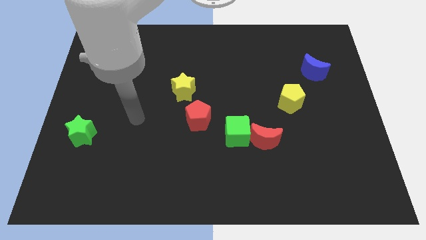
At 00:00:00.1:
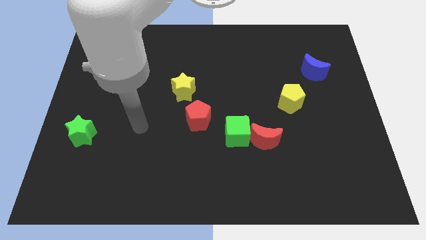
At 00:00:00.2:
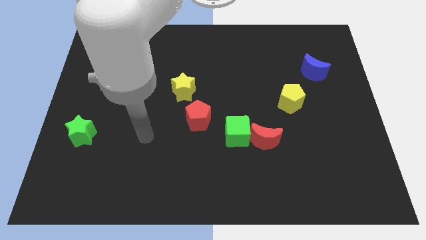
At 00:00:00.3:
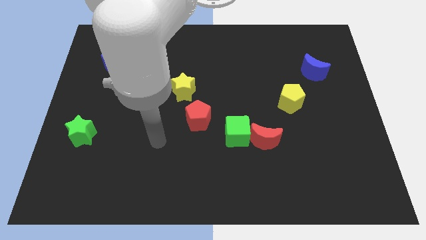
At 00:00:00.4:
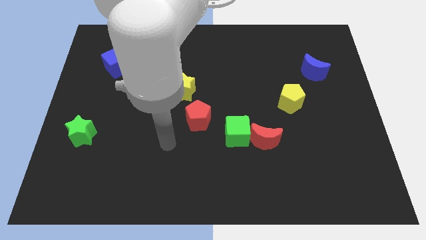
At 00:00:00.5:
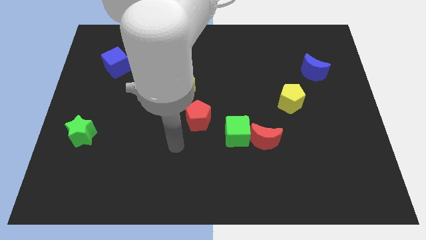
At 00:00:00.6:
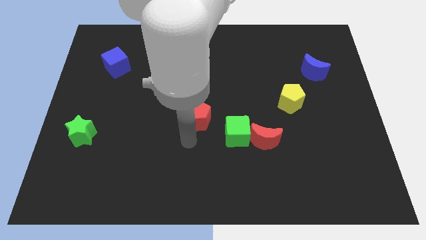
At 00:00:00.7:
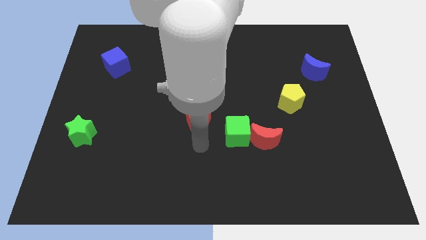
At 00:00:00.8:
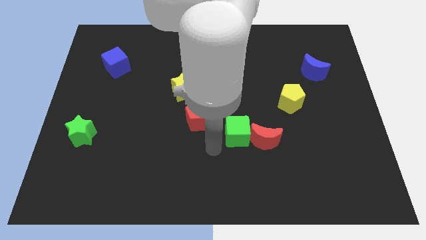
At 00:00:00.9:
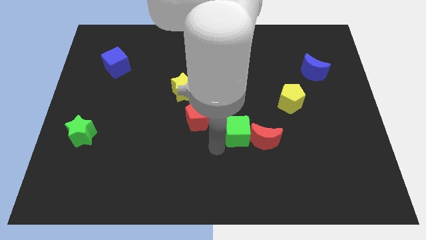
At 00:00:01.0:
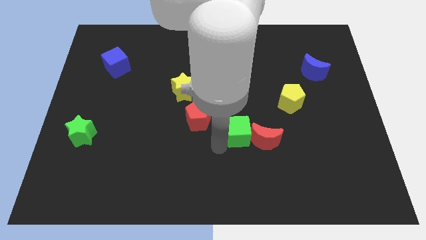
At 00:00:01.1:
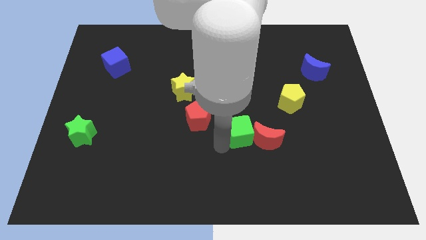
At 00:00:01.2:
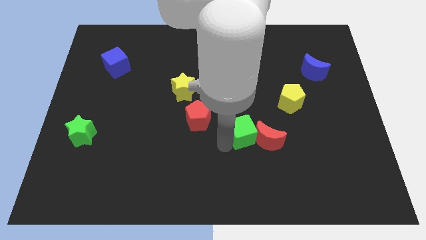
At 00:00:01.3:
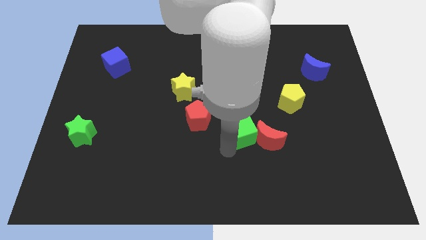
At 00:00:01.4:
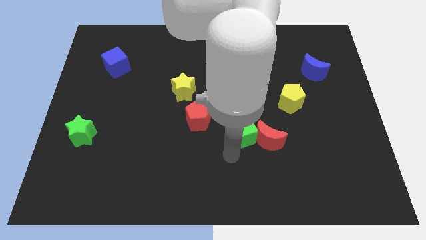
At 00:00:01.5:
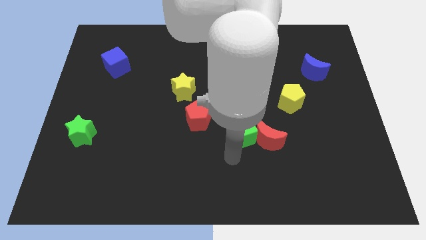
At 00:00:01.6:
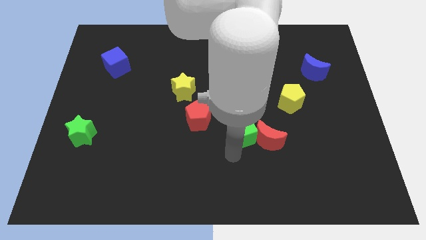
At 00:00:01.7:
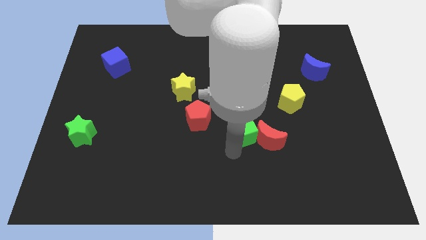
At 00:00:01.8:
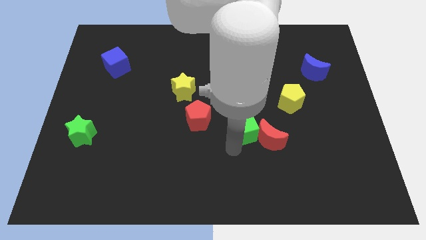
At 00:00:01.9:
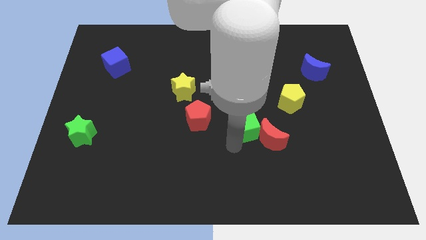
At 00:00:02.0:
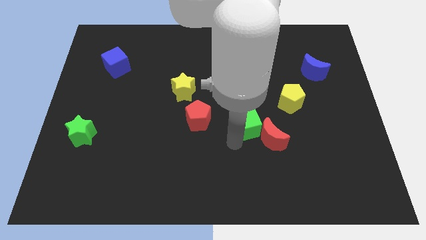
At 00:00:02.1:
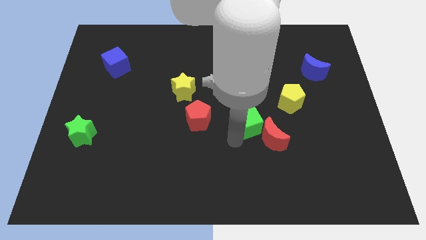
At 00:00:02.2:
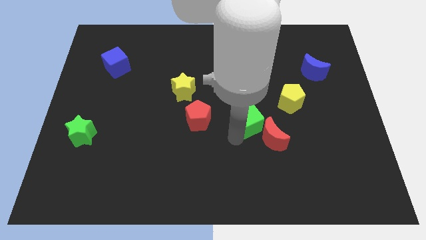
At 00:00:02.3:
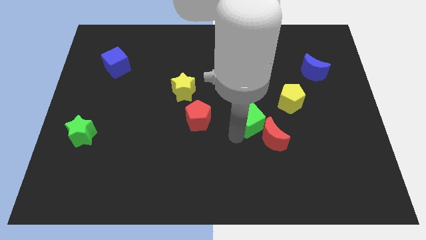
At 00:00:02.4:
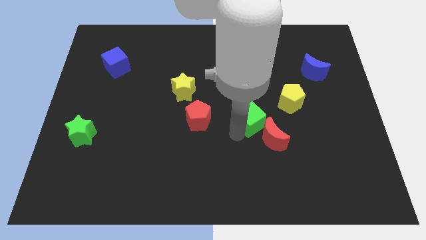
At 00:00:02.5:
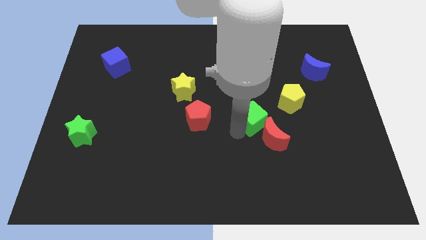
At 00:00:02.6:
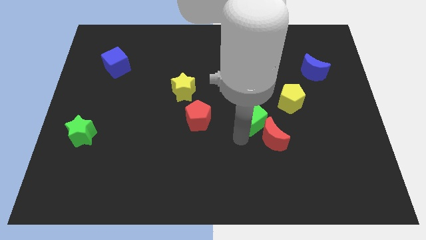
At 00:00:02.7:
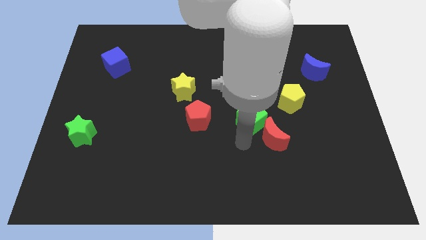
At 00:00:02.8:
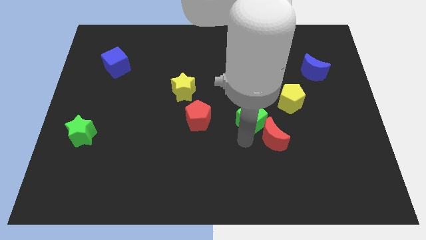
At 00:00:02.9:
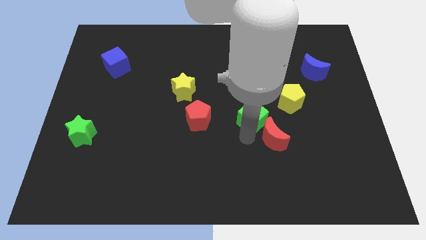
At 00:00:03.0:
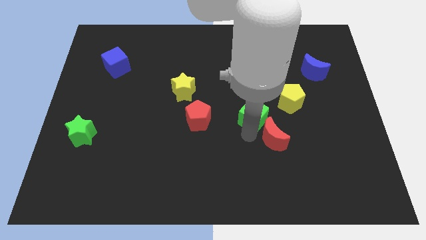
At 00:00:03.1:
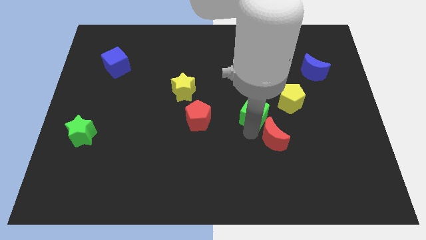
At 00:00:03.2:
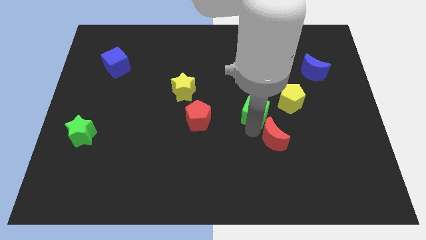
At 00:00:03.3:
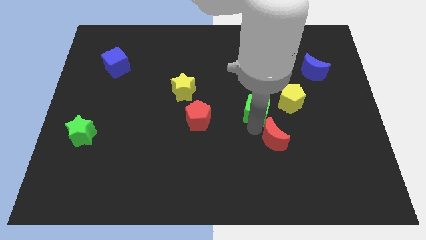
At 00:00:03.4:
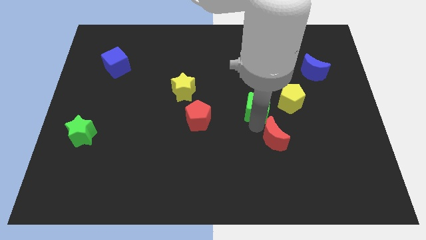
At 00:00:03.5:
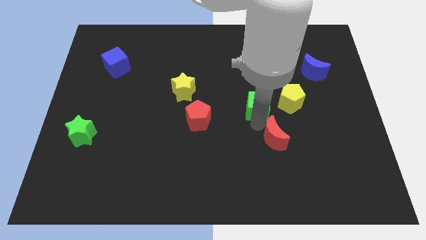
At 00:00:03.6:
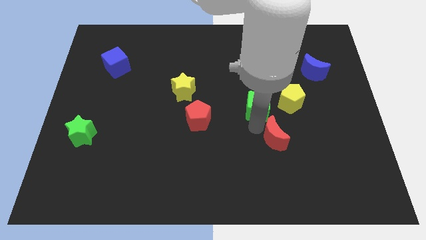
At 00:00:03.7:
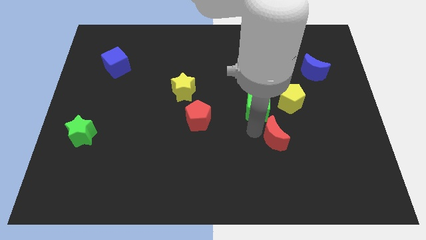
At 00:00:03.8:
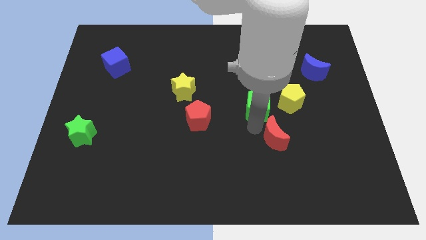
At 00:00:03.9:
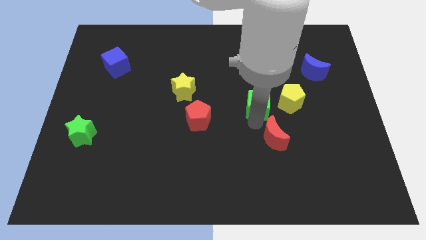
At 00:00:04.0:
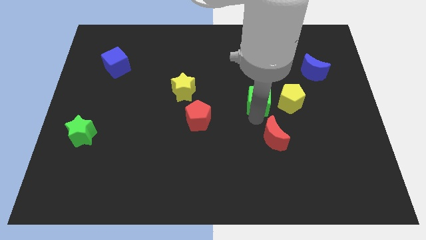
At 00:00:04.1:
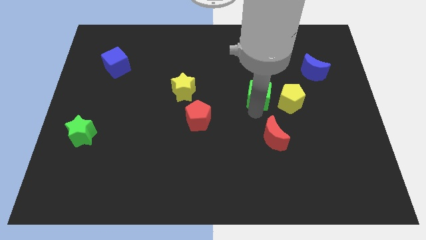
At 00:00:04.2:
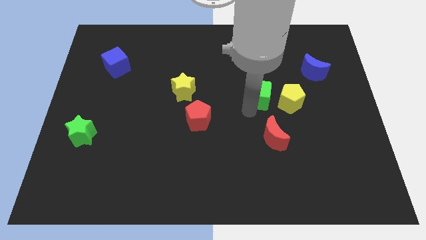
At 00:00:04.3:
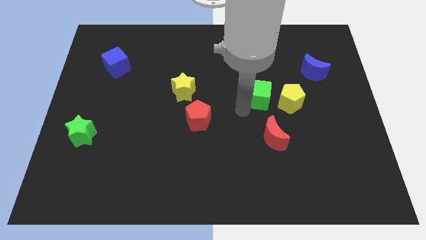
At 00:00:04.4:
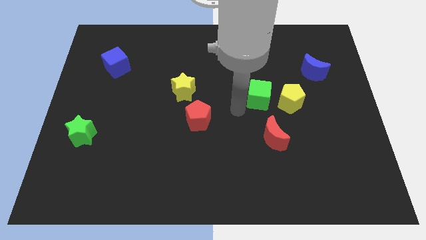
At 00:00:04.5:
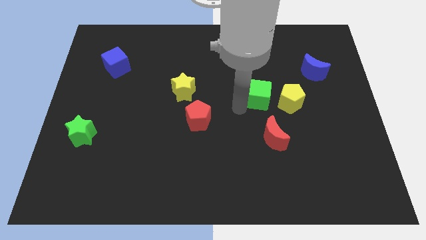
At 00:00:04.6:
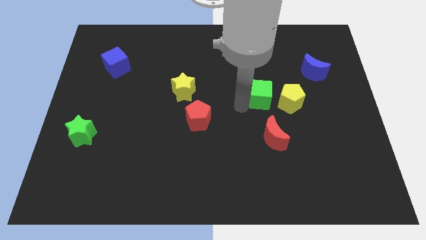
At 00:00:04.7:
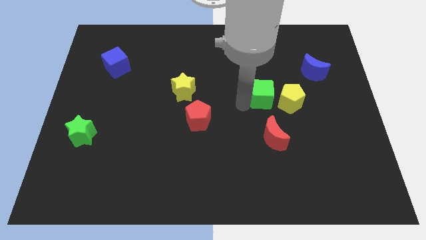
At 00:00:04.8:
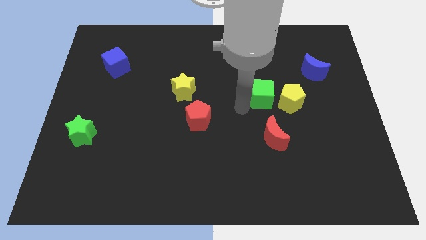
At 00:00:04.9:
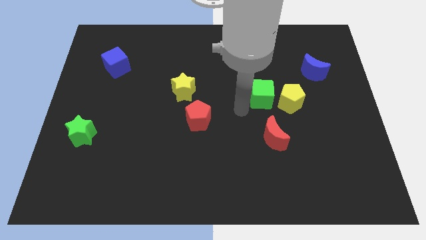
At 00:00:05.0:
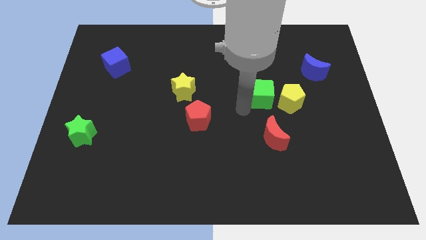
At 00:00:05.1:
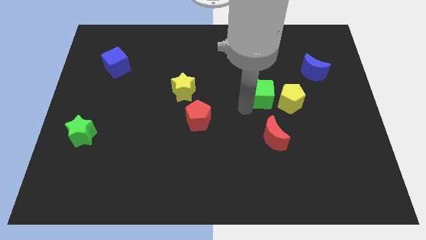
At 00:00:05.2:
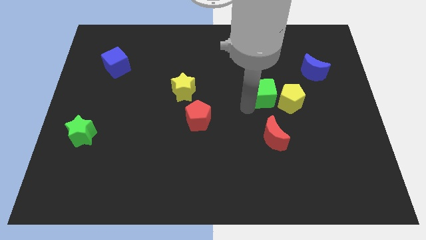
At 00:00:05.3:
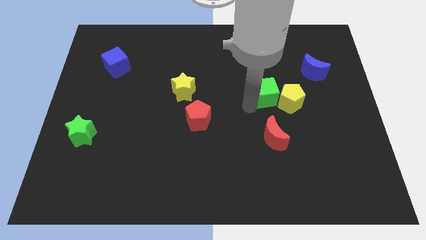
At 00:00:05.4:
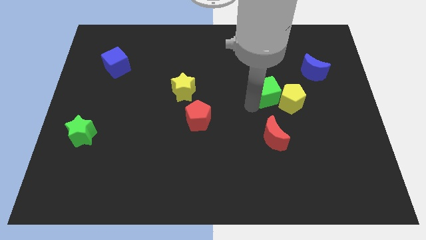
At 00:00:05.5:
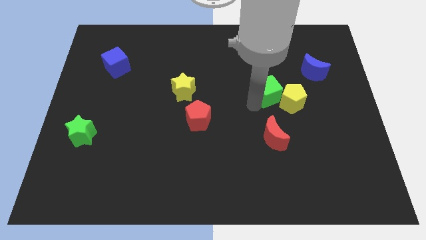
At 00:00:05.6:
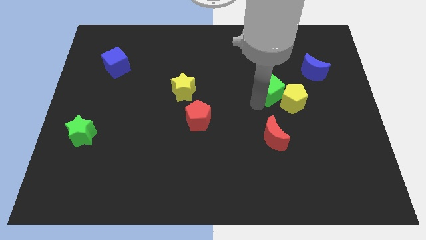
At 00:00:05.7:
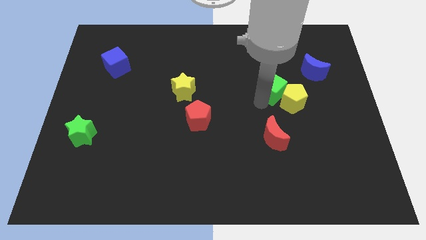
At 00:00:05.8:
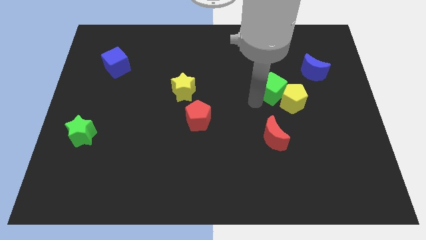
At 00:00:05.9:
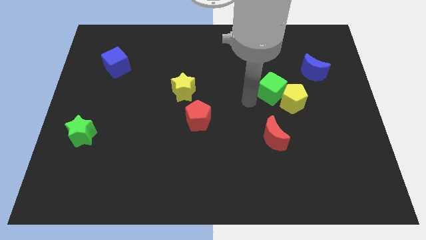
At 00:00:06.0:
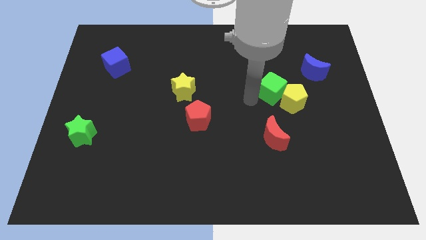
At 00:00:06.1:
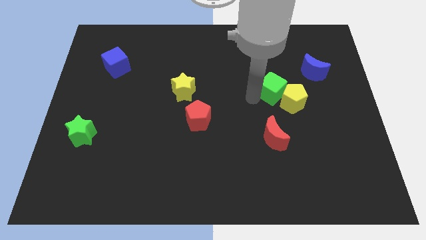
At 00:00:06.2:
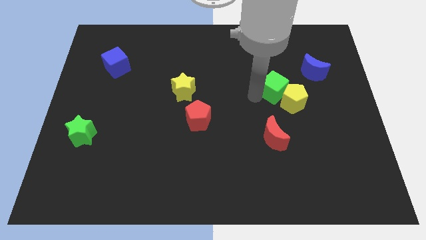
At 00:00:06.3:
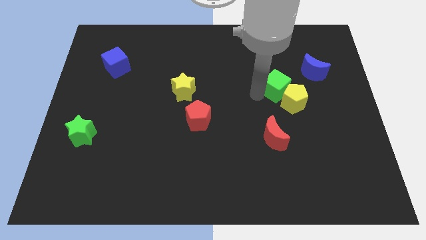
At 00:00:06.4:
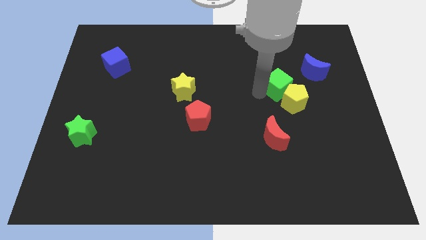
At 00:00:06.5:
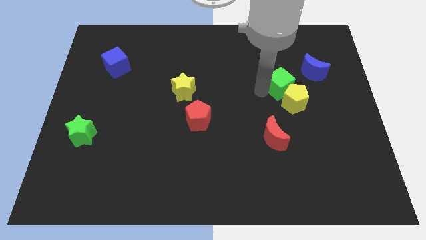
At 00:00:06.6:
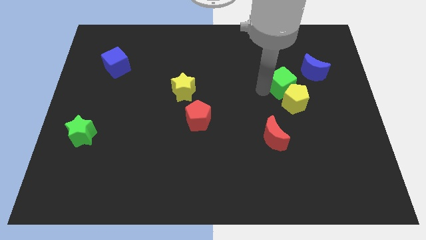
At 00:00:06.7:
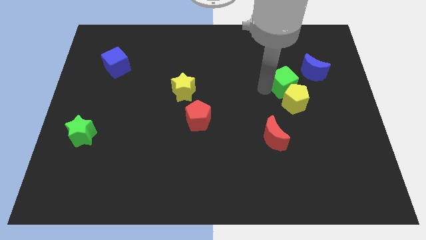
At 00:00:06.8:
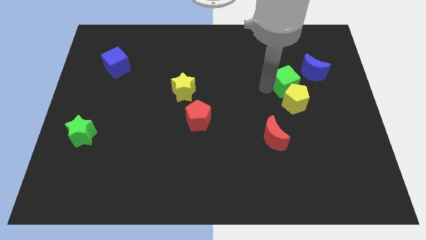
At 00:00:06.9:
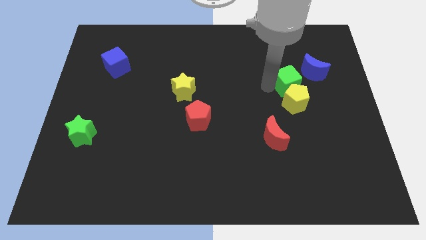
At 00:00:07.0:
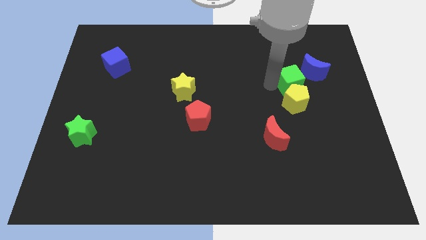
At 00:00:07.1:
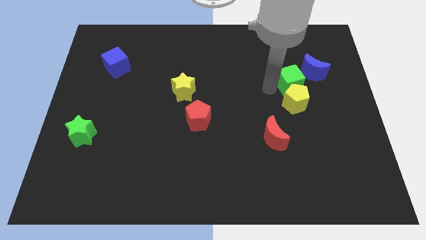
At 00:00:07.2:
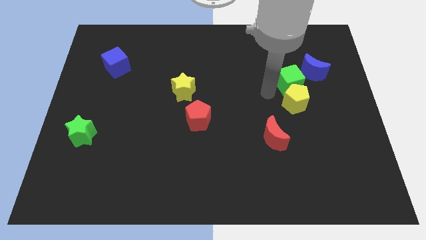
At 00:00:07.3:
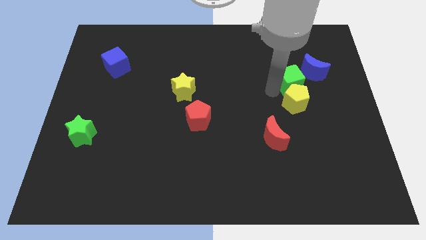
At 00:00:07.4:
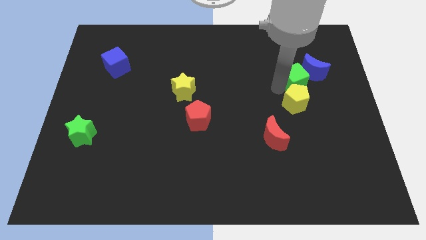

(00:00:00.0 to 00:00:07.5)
push the green cube close to the blue moon

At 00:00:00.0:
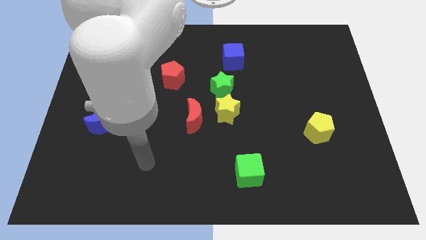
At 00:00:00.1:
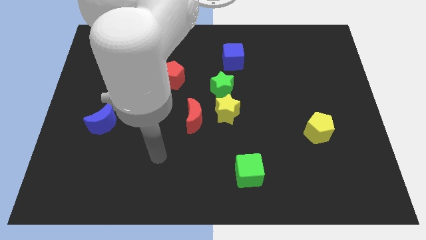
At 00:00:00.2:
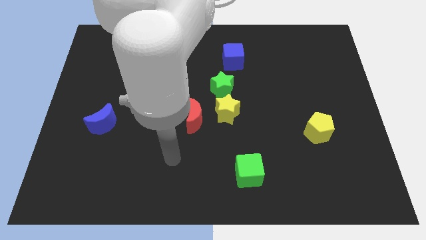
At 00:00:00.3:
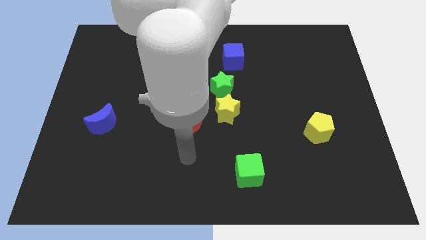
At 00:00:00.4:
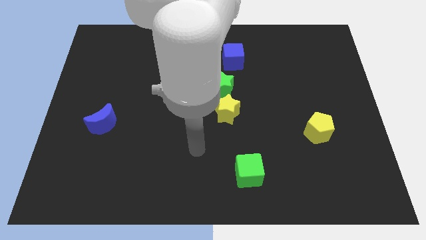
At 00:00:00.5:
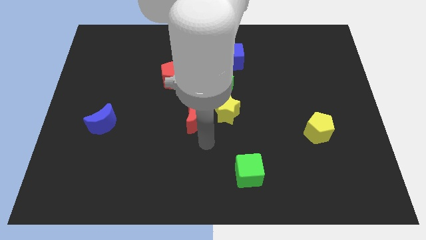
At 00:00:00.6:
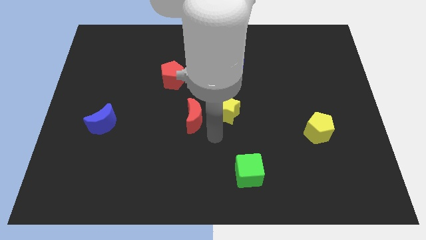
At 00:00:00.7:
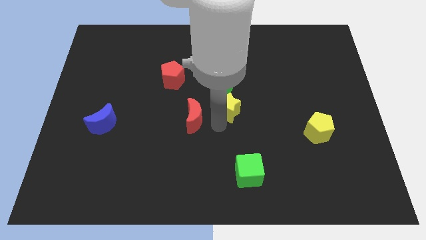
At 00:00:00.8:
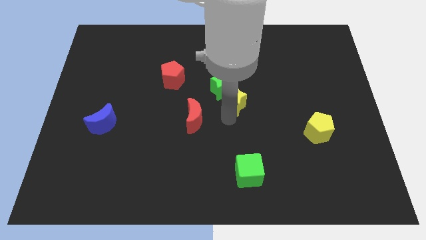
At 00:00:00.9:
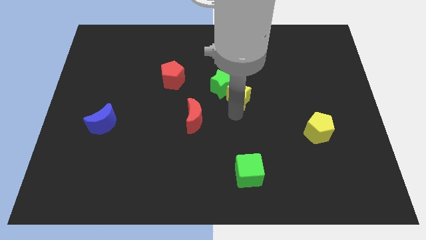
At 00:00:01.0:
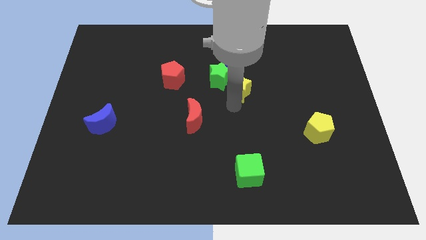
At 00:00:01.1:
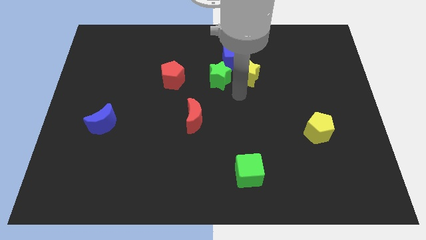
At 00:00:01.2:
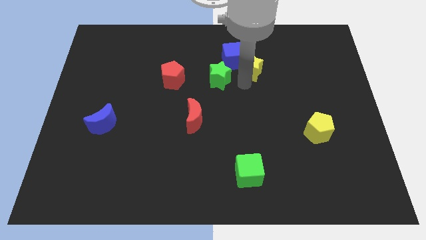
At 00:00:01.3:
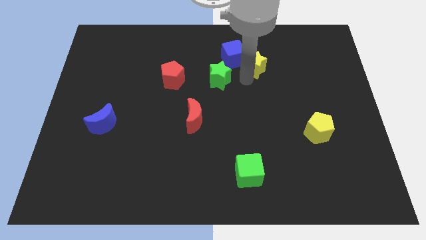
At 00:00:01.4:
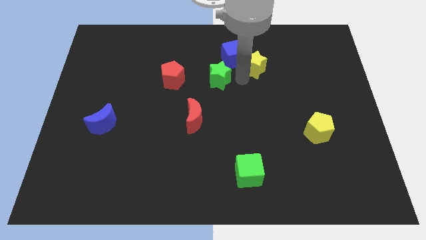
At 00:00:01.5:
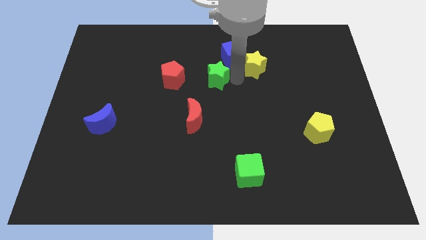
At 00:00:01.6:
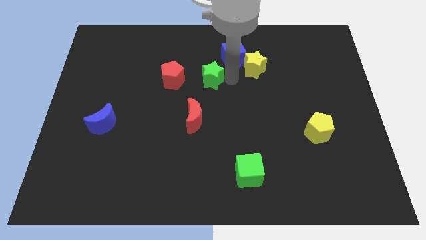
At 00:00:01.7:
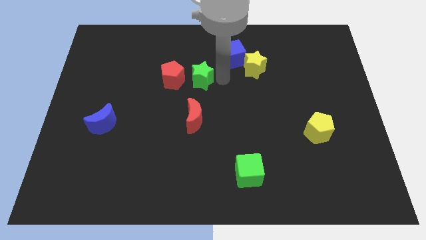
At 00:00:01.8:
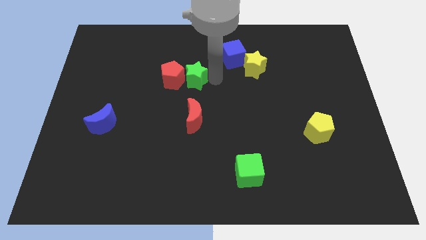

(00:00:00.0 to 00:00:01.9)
move the green star next to the red pentagon
